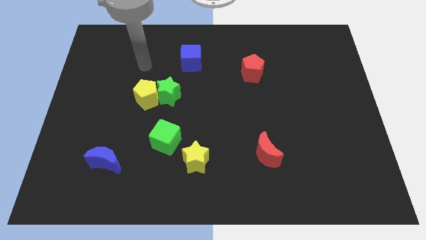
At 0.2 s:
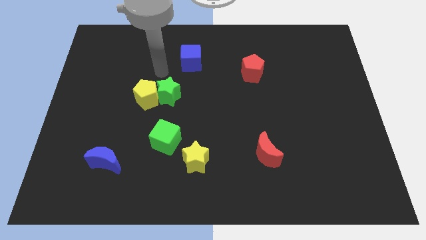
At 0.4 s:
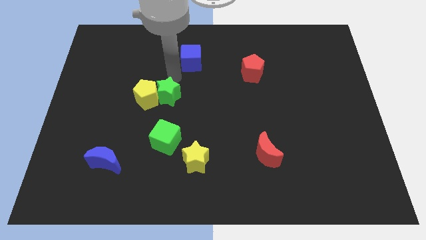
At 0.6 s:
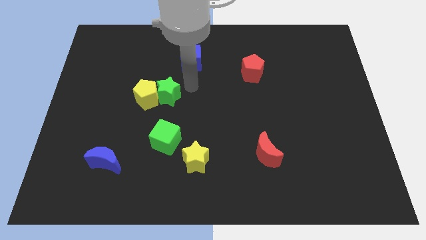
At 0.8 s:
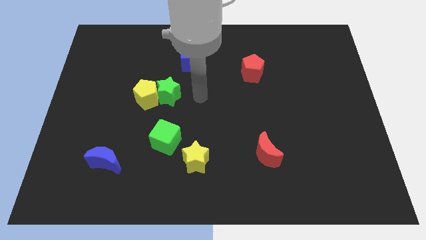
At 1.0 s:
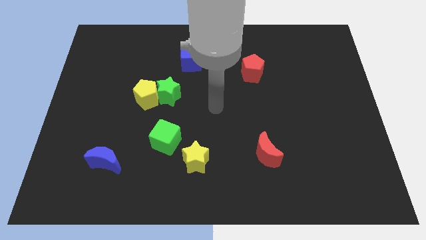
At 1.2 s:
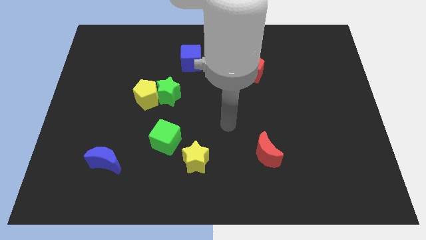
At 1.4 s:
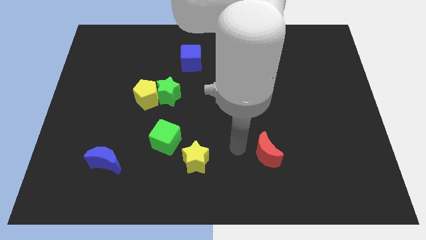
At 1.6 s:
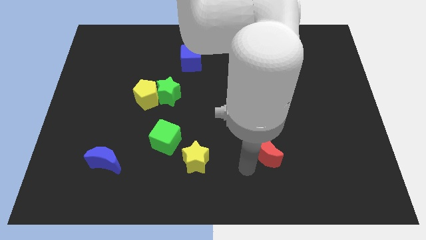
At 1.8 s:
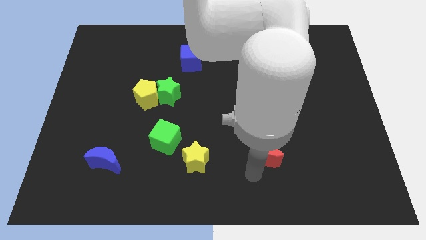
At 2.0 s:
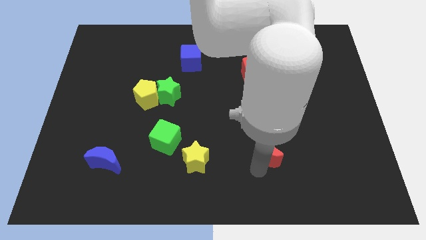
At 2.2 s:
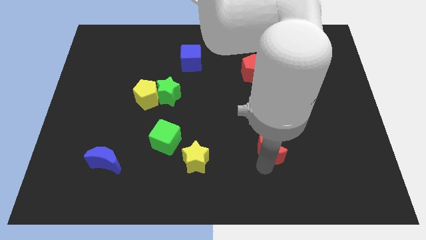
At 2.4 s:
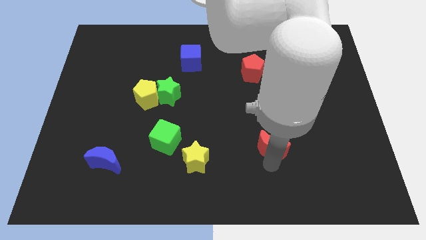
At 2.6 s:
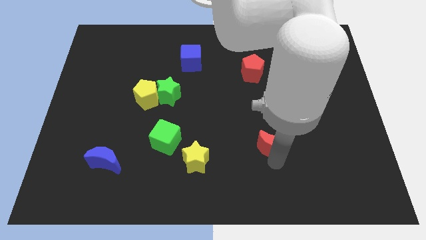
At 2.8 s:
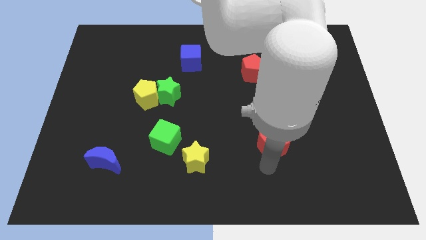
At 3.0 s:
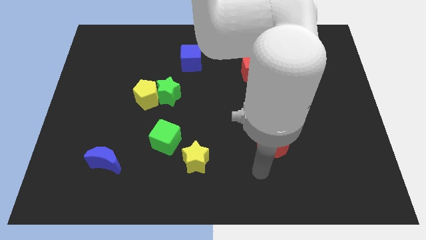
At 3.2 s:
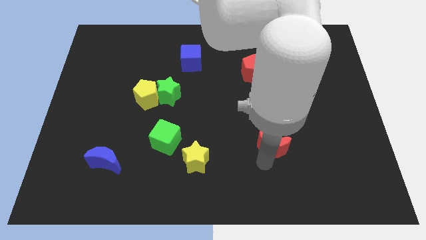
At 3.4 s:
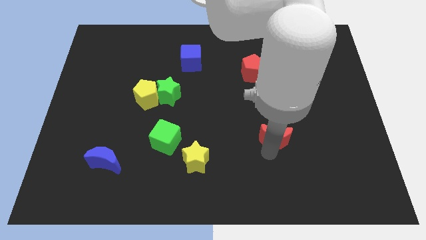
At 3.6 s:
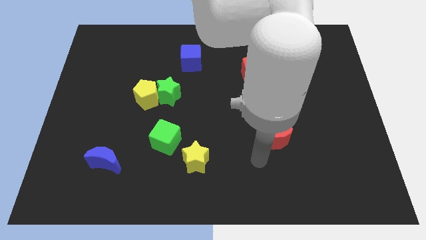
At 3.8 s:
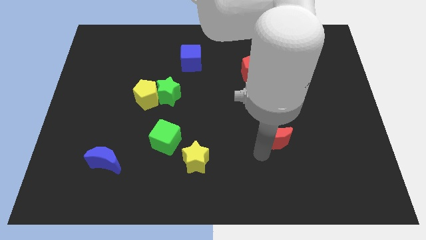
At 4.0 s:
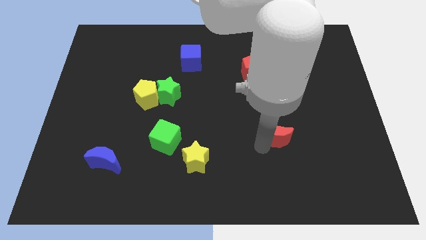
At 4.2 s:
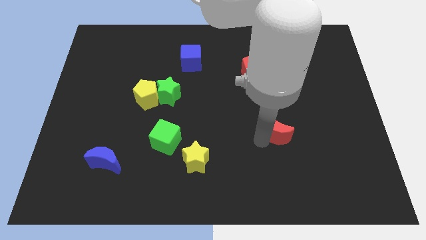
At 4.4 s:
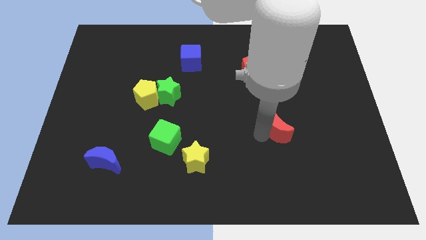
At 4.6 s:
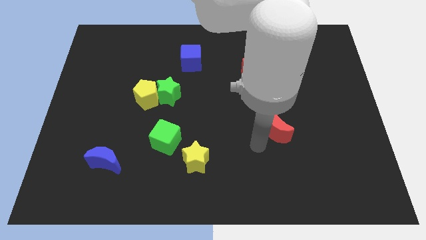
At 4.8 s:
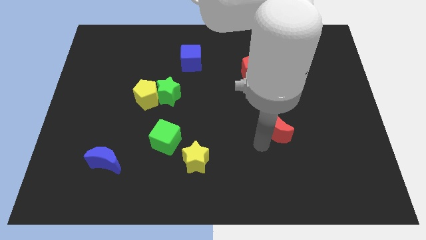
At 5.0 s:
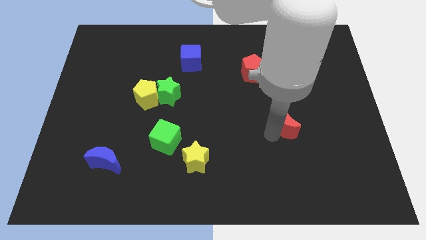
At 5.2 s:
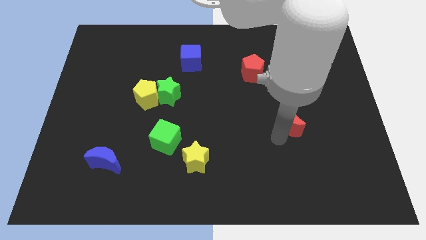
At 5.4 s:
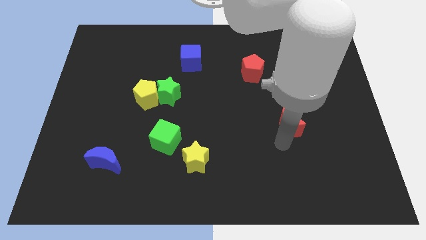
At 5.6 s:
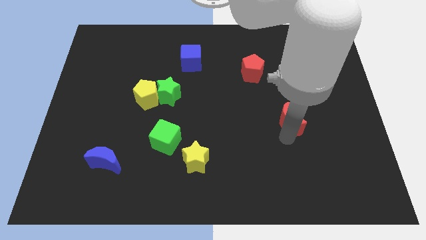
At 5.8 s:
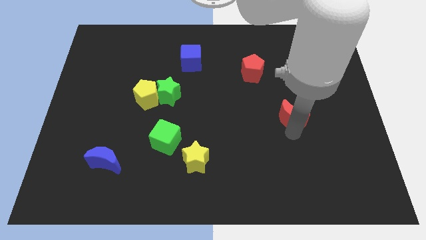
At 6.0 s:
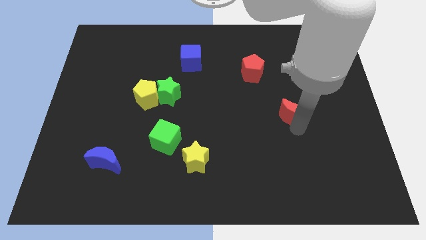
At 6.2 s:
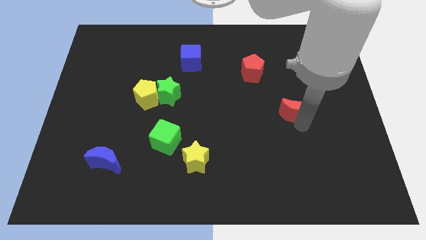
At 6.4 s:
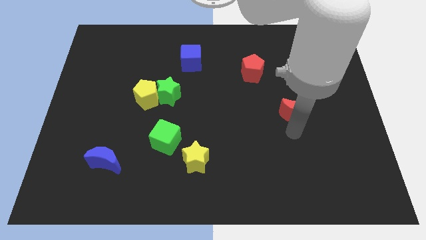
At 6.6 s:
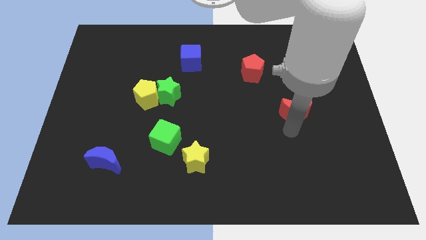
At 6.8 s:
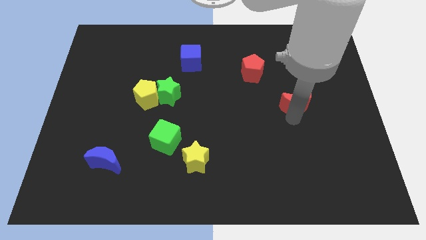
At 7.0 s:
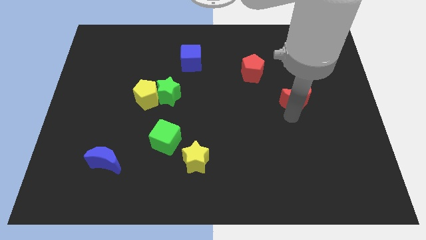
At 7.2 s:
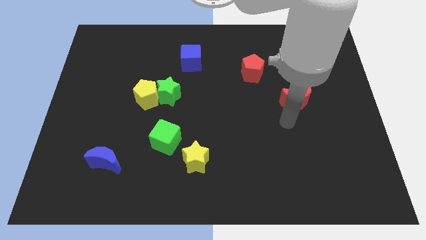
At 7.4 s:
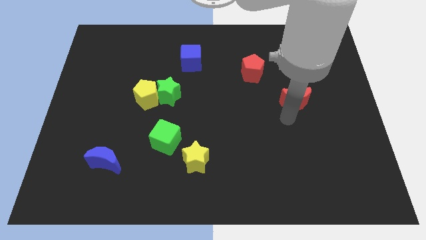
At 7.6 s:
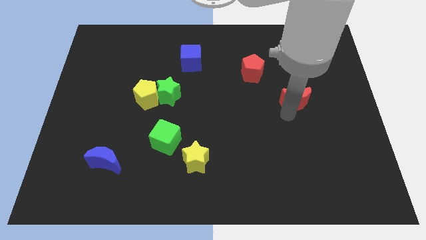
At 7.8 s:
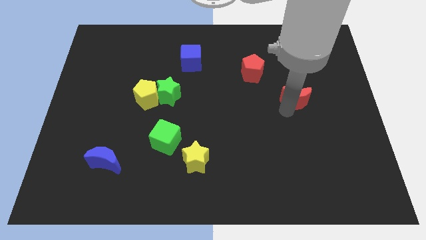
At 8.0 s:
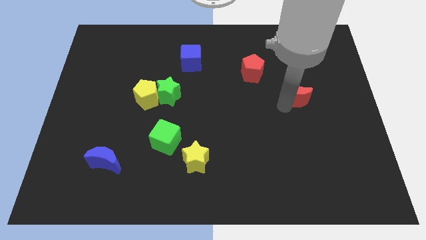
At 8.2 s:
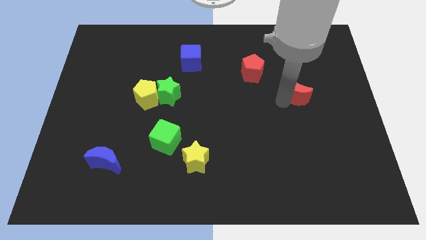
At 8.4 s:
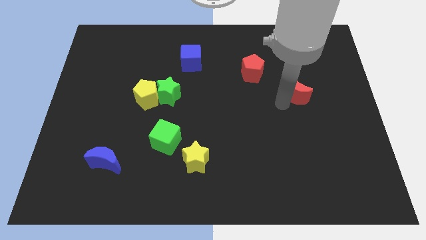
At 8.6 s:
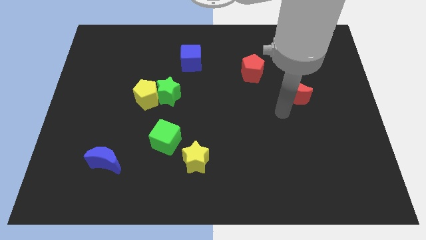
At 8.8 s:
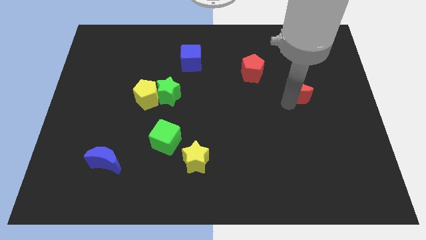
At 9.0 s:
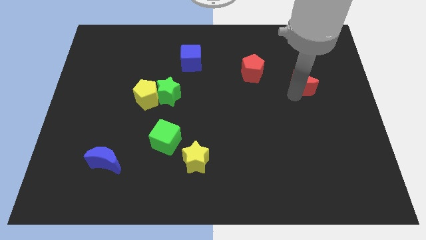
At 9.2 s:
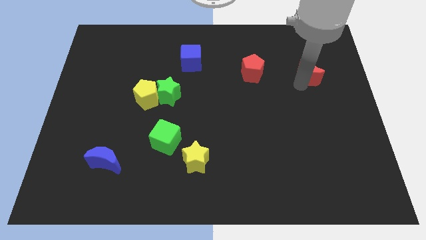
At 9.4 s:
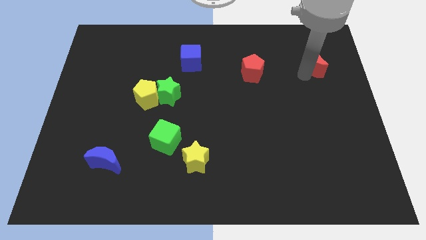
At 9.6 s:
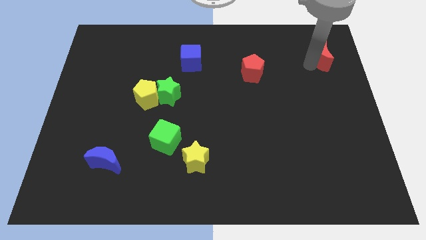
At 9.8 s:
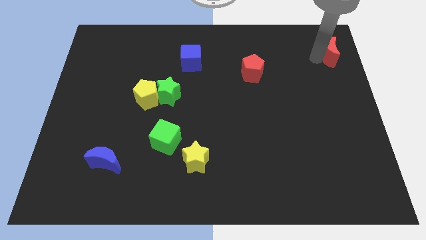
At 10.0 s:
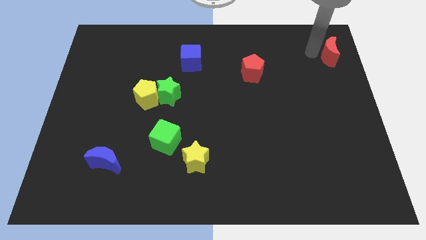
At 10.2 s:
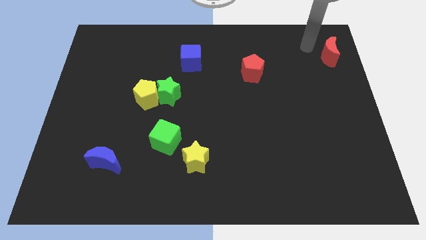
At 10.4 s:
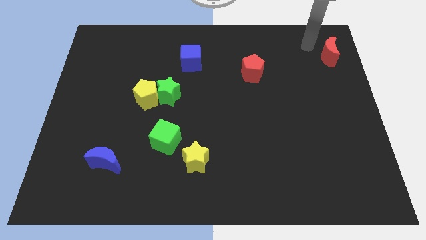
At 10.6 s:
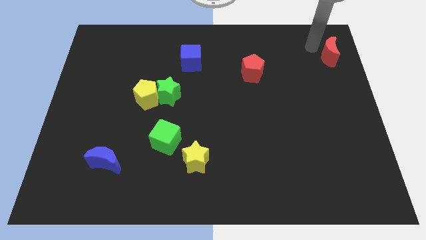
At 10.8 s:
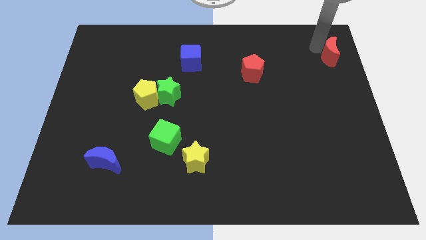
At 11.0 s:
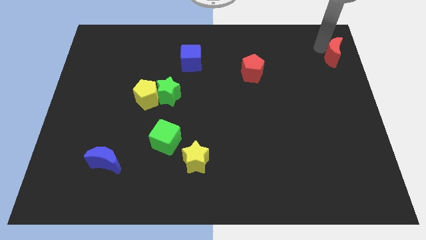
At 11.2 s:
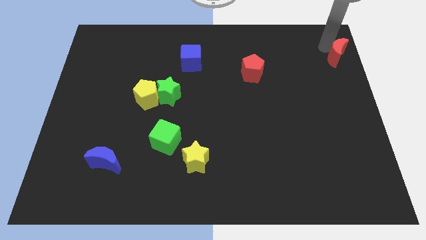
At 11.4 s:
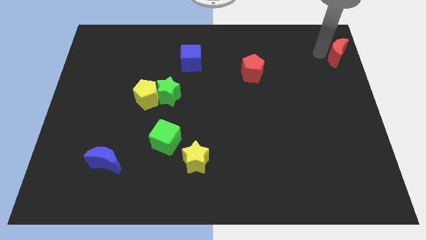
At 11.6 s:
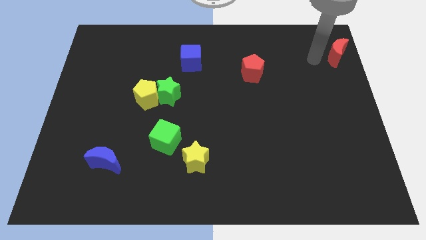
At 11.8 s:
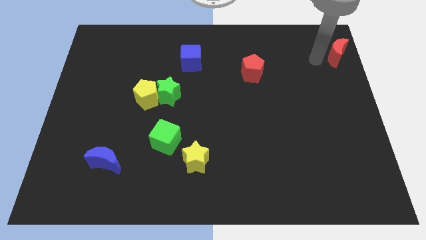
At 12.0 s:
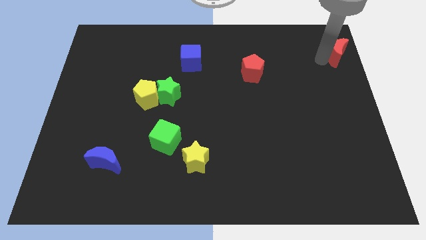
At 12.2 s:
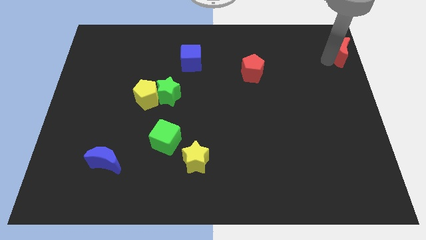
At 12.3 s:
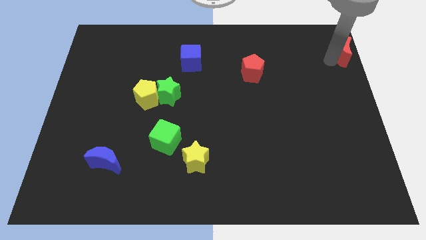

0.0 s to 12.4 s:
push the red moon to the top right of the board

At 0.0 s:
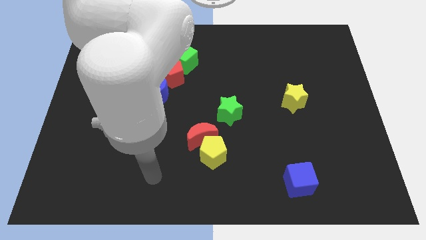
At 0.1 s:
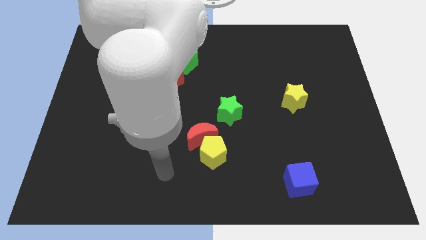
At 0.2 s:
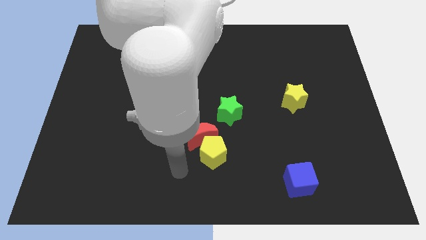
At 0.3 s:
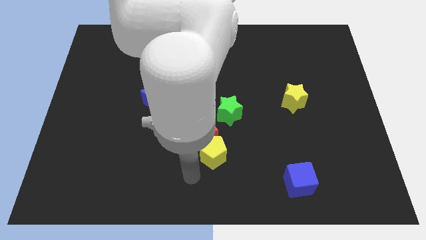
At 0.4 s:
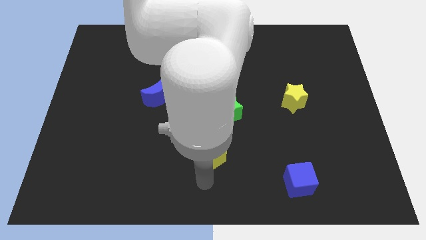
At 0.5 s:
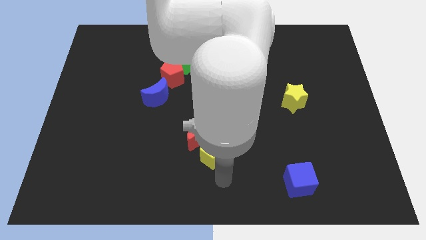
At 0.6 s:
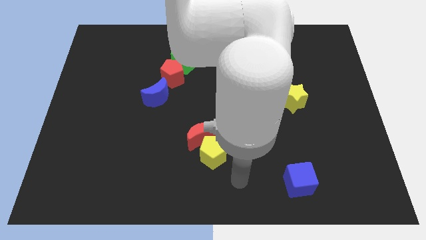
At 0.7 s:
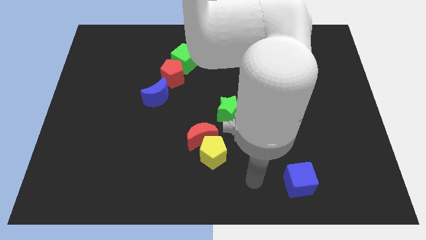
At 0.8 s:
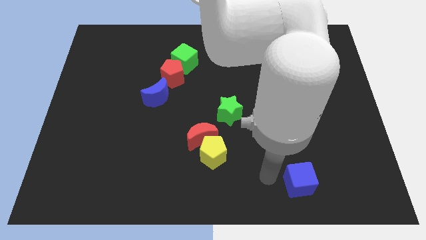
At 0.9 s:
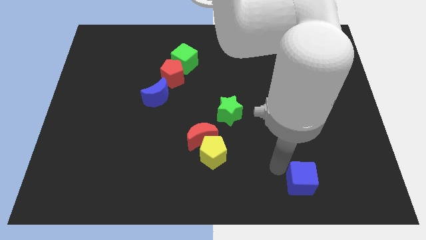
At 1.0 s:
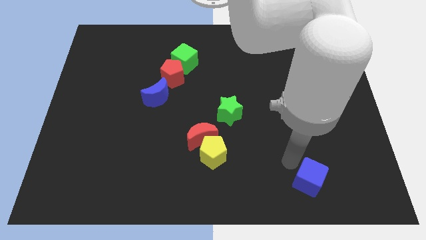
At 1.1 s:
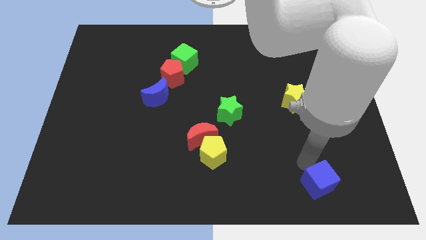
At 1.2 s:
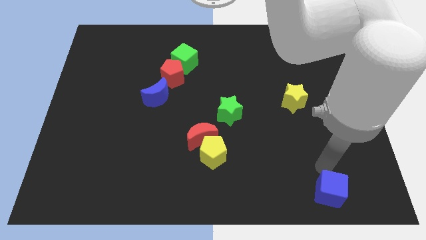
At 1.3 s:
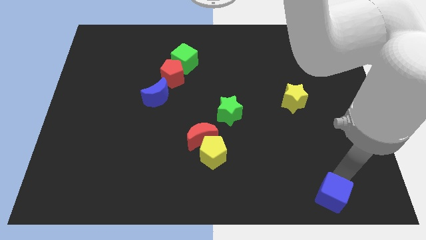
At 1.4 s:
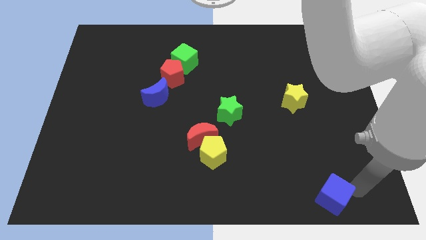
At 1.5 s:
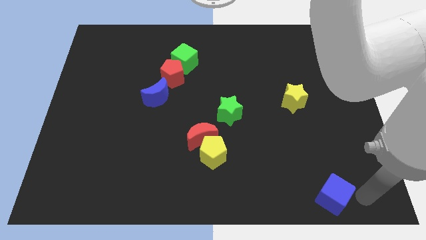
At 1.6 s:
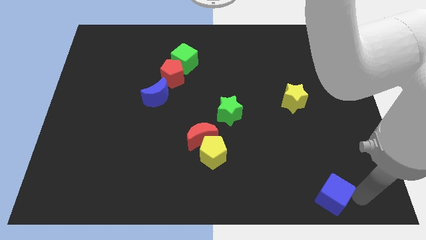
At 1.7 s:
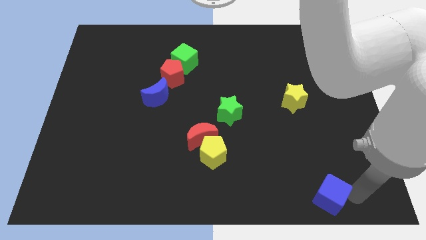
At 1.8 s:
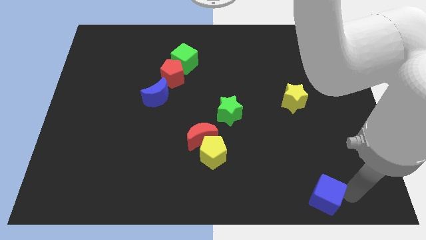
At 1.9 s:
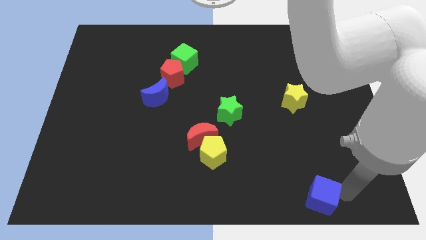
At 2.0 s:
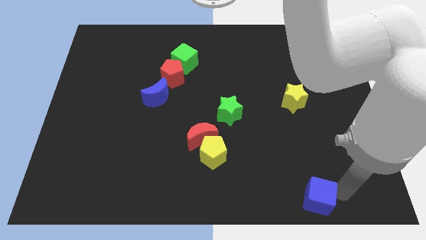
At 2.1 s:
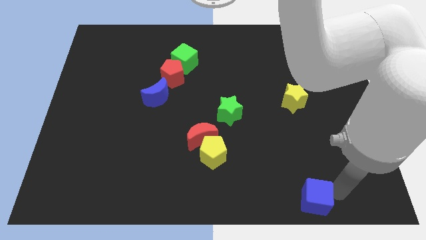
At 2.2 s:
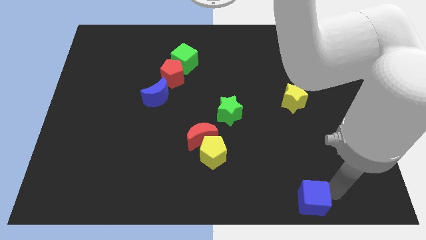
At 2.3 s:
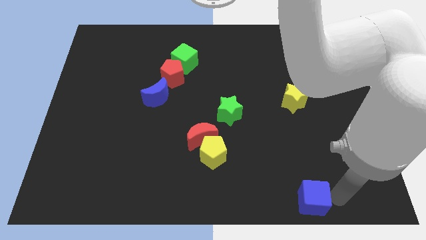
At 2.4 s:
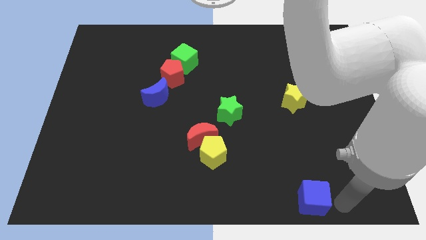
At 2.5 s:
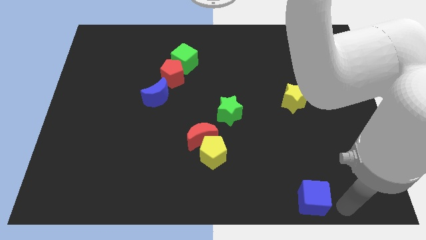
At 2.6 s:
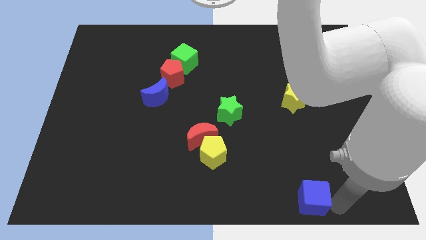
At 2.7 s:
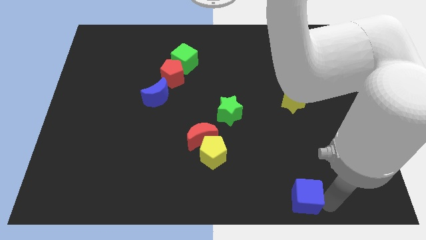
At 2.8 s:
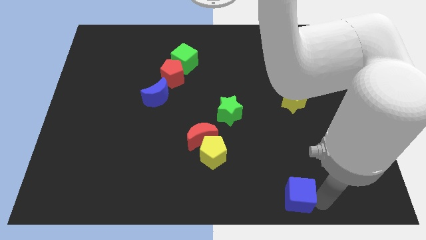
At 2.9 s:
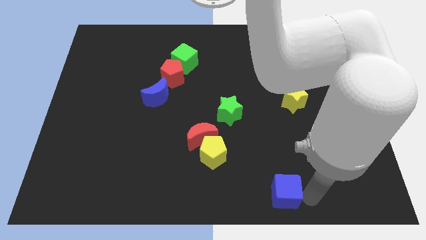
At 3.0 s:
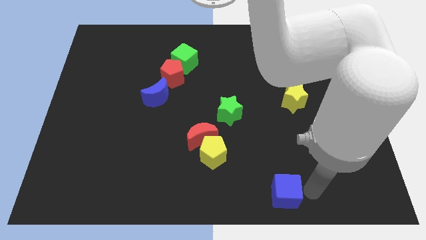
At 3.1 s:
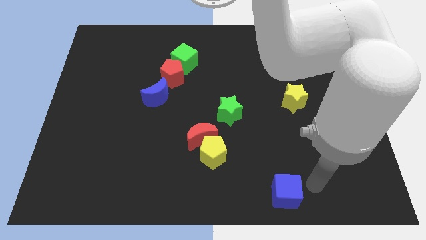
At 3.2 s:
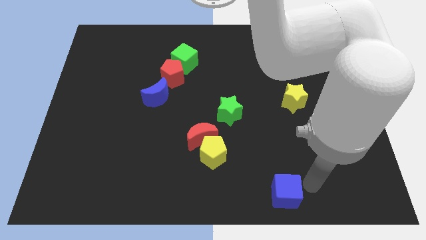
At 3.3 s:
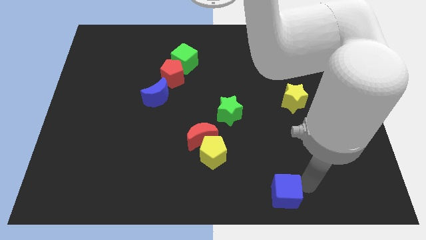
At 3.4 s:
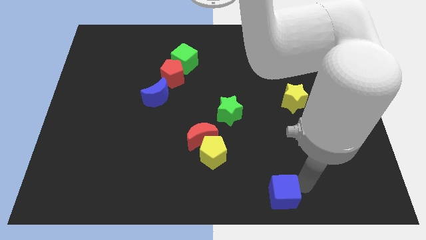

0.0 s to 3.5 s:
put the blue cube to the bottom
